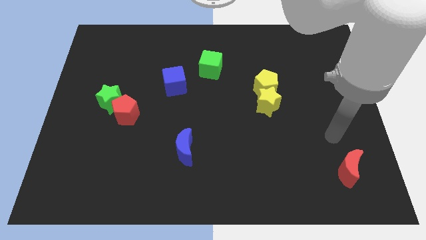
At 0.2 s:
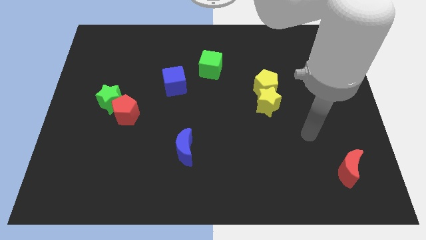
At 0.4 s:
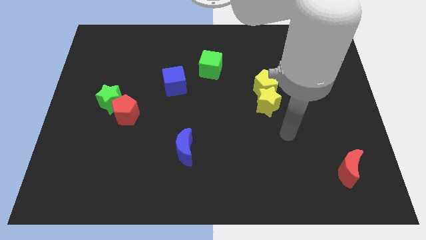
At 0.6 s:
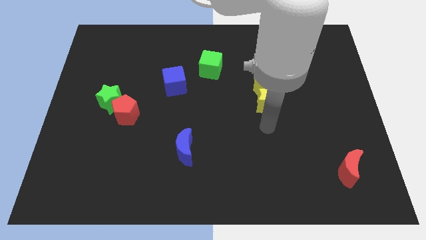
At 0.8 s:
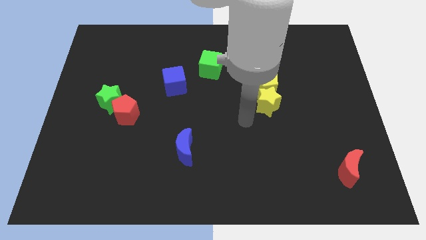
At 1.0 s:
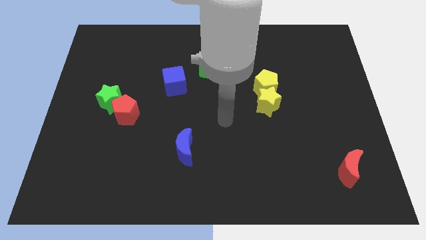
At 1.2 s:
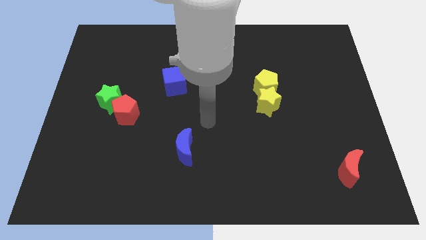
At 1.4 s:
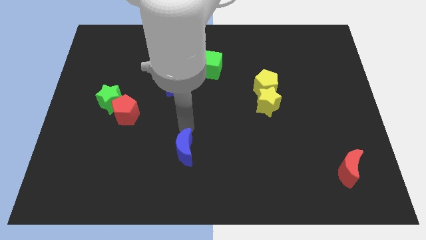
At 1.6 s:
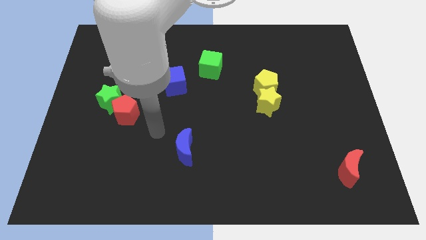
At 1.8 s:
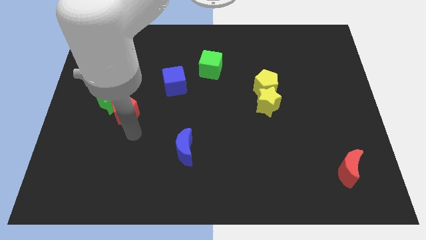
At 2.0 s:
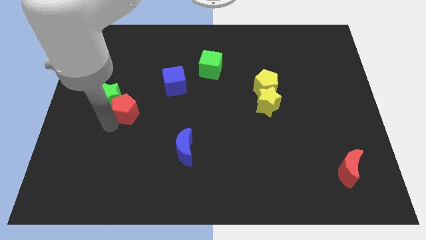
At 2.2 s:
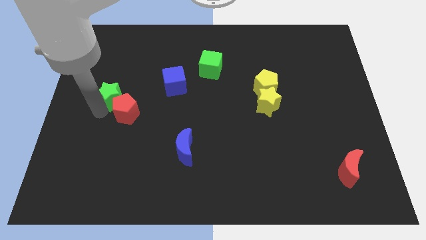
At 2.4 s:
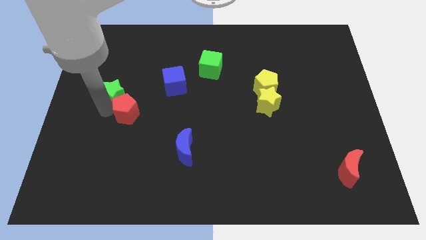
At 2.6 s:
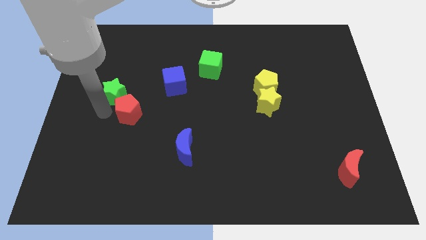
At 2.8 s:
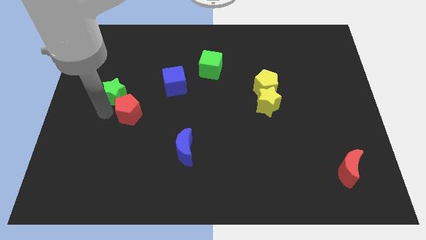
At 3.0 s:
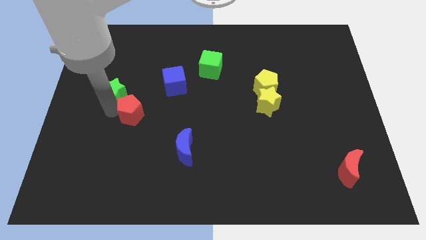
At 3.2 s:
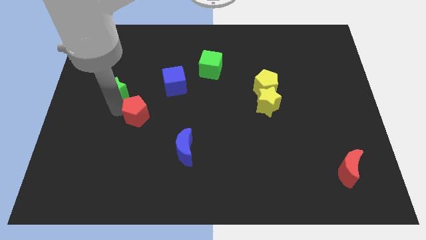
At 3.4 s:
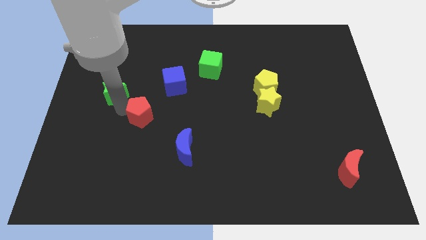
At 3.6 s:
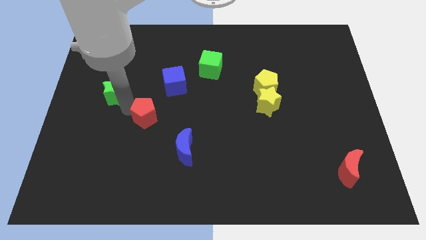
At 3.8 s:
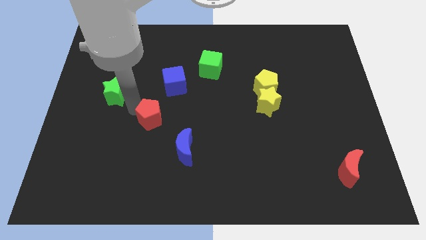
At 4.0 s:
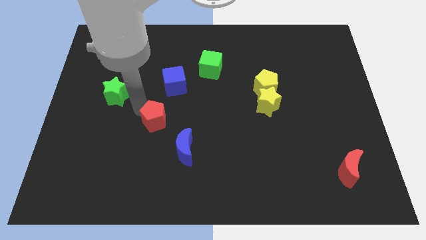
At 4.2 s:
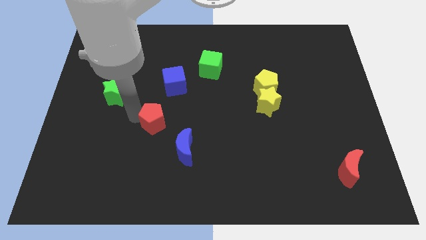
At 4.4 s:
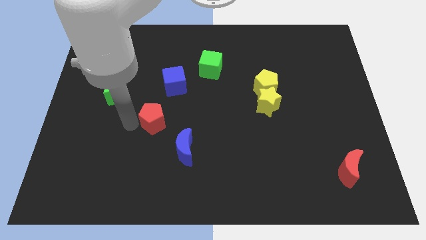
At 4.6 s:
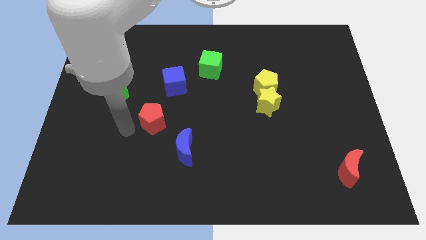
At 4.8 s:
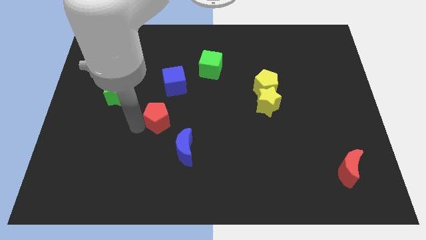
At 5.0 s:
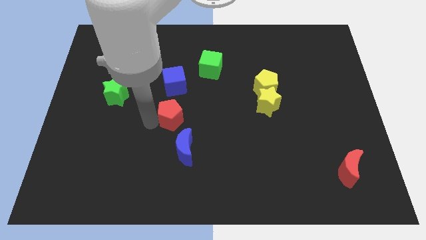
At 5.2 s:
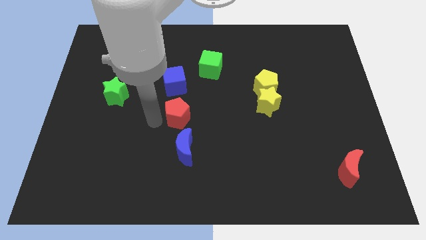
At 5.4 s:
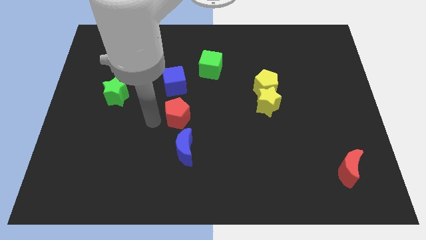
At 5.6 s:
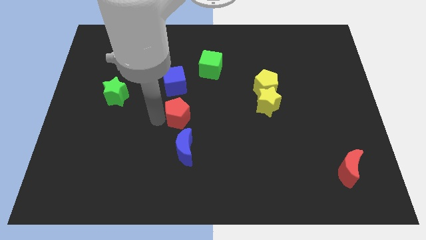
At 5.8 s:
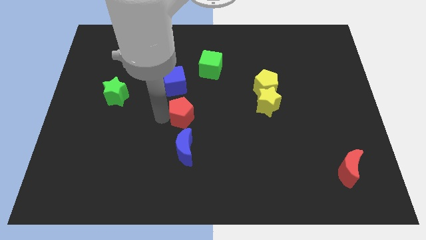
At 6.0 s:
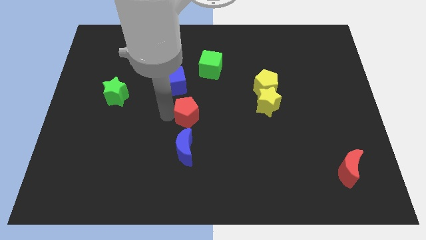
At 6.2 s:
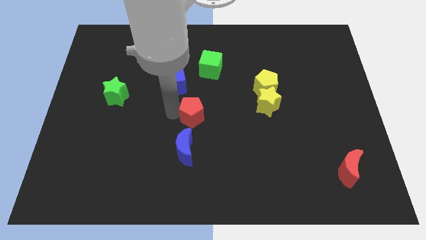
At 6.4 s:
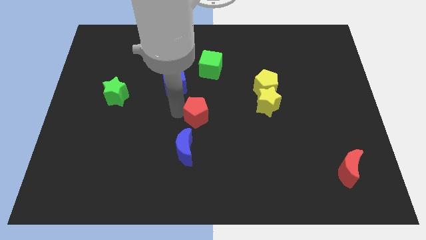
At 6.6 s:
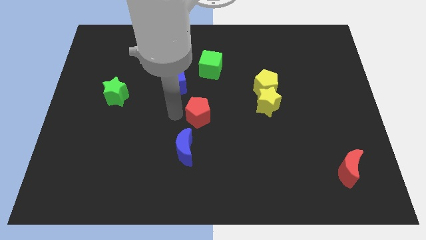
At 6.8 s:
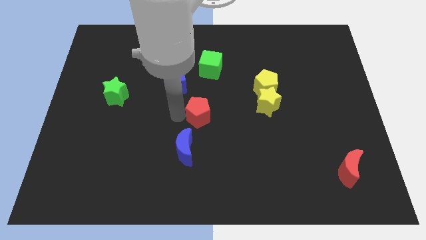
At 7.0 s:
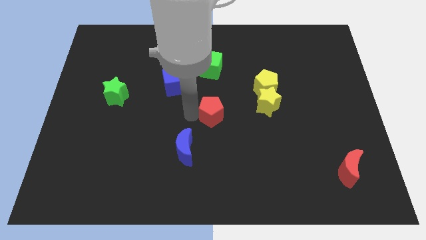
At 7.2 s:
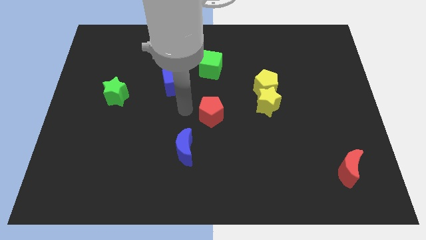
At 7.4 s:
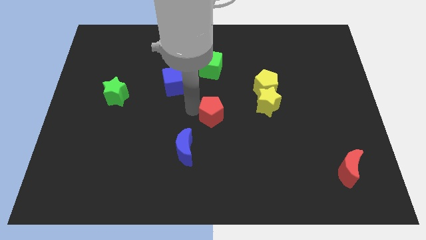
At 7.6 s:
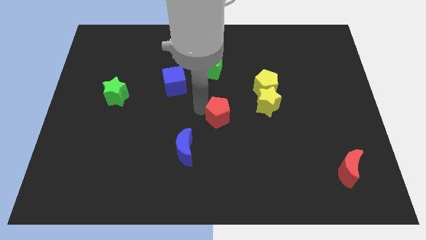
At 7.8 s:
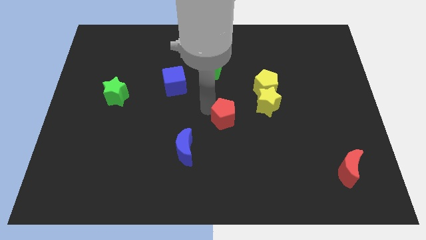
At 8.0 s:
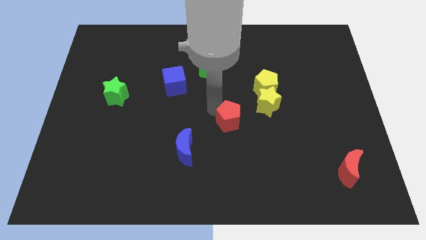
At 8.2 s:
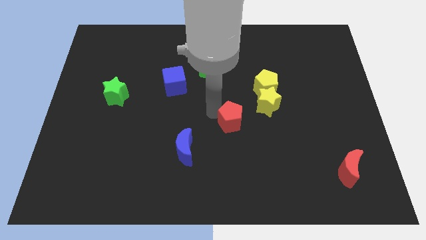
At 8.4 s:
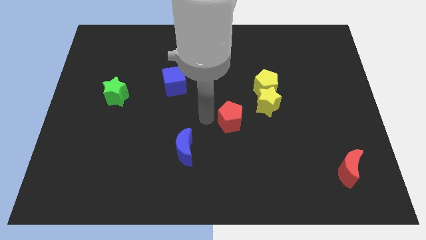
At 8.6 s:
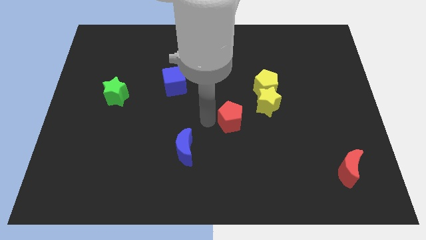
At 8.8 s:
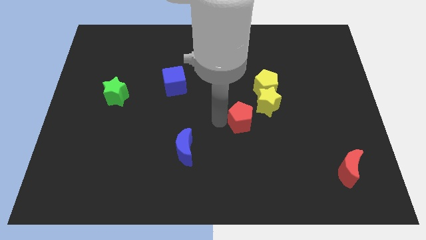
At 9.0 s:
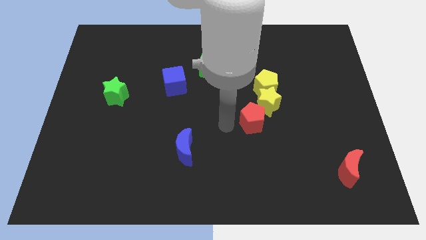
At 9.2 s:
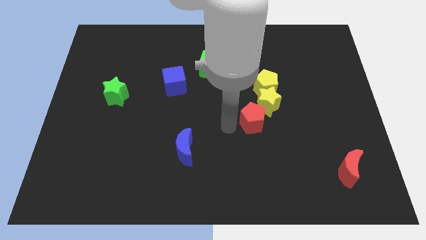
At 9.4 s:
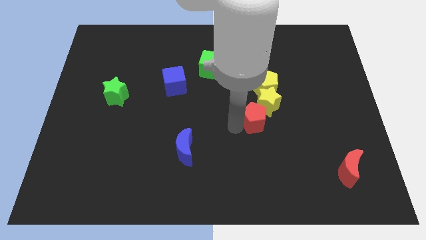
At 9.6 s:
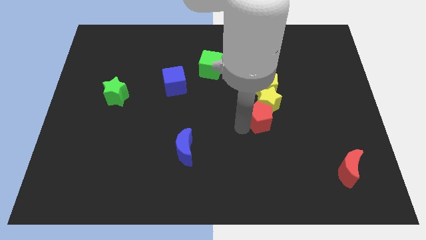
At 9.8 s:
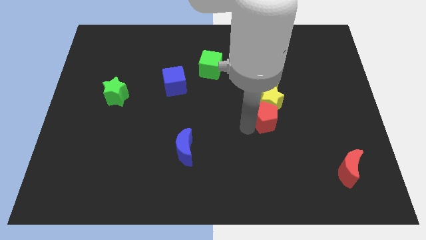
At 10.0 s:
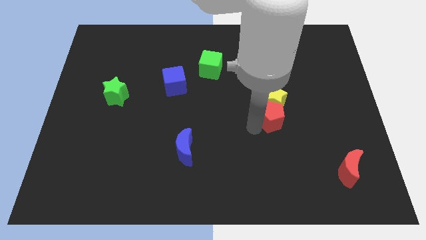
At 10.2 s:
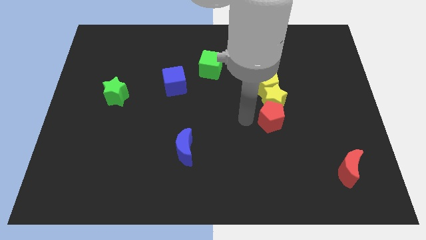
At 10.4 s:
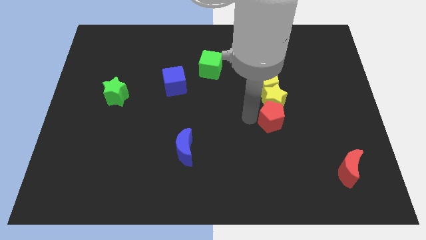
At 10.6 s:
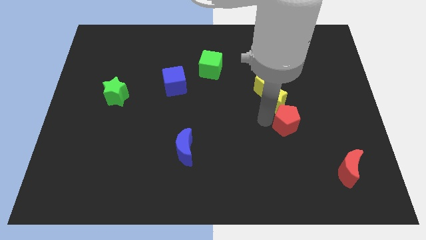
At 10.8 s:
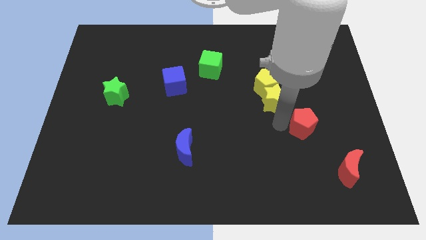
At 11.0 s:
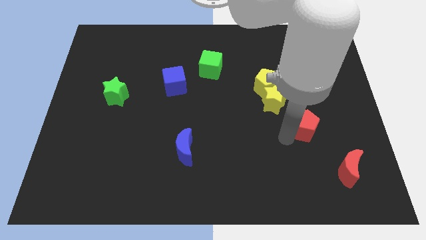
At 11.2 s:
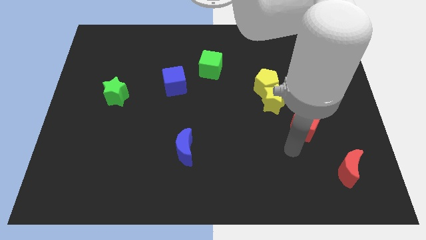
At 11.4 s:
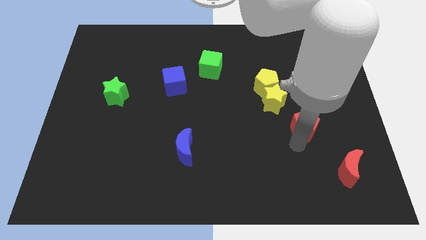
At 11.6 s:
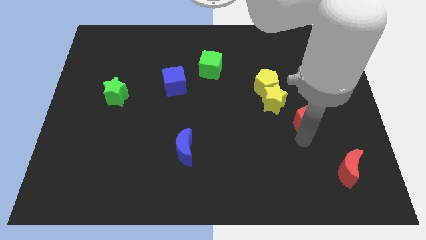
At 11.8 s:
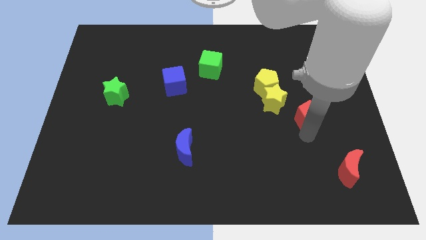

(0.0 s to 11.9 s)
push the red pentagon to the right side of the yellow star

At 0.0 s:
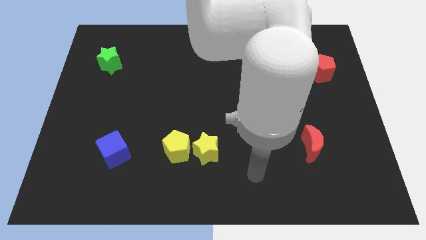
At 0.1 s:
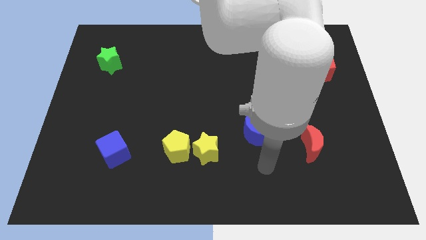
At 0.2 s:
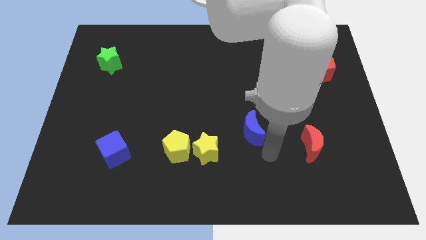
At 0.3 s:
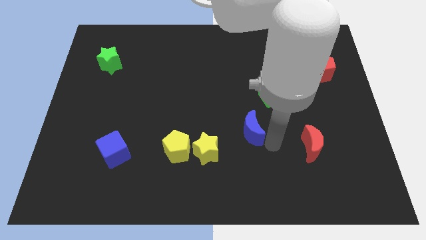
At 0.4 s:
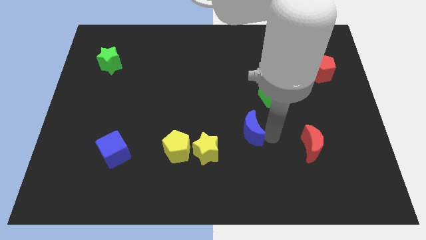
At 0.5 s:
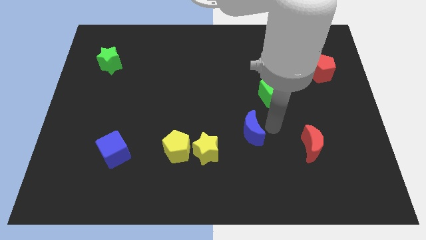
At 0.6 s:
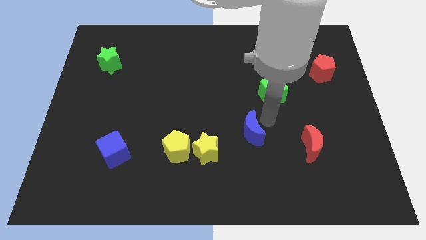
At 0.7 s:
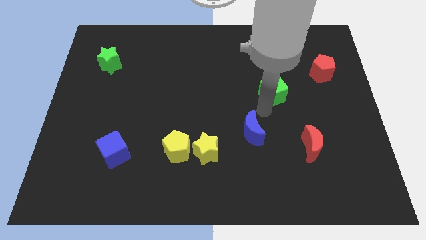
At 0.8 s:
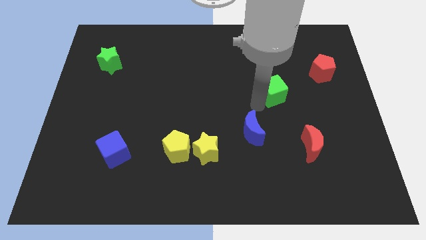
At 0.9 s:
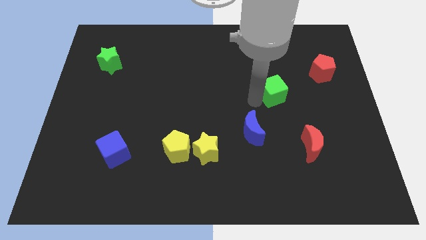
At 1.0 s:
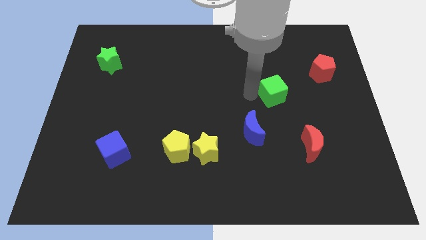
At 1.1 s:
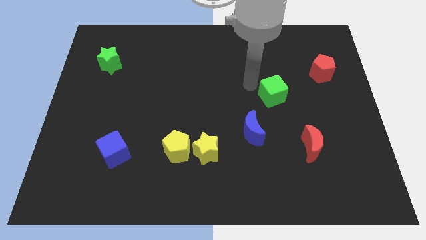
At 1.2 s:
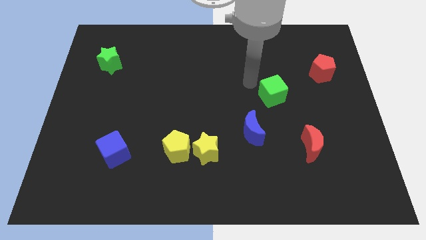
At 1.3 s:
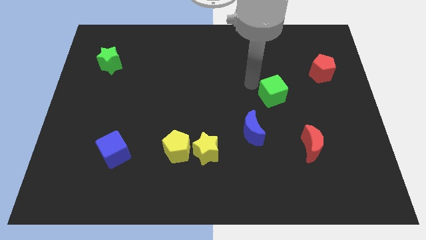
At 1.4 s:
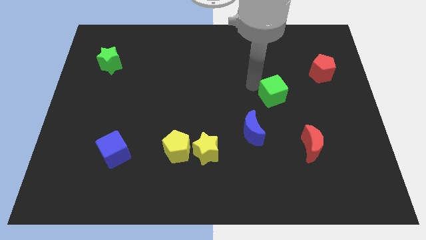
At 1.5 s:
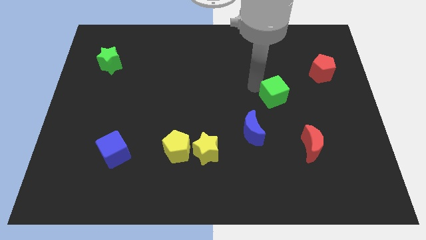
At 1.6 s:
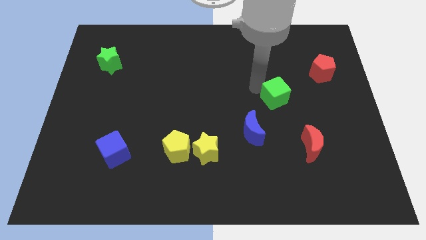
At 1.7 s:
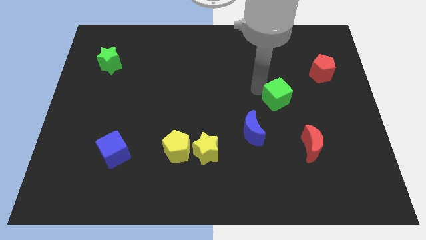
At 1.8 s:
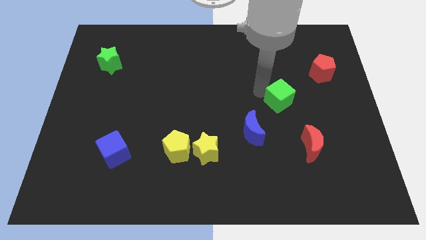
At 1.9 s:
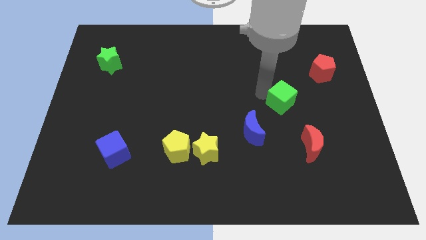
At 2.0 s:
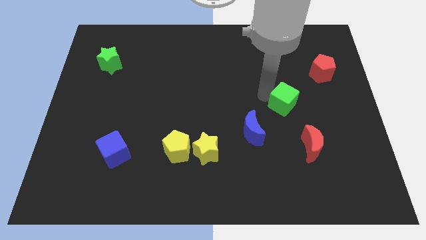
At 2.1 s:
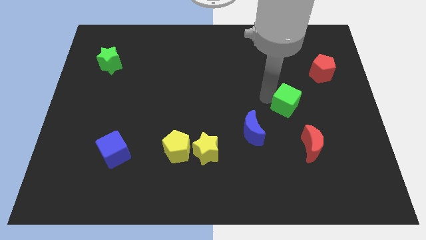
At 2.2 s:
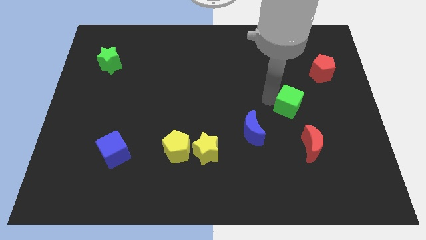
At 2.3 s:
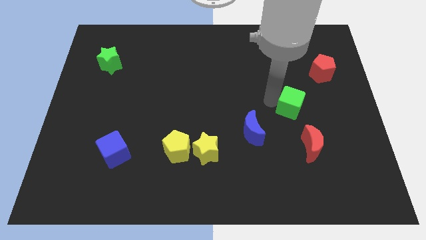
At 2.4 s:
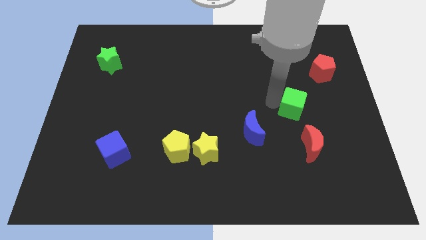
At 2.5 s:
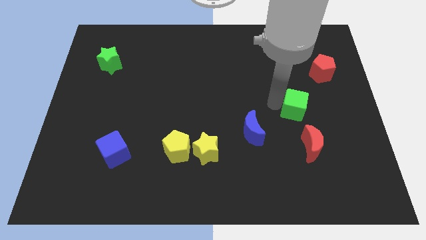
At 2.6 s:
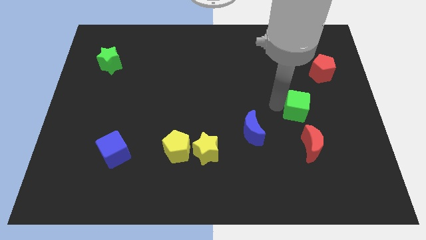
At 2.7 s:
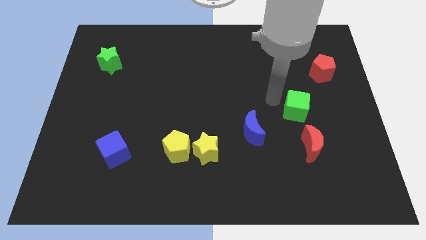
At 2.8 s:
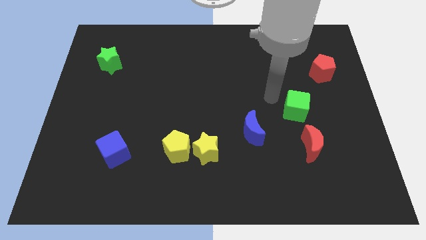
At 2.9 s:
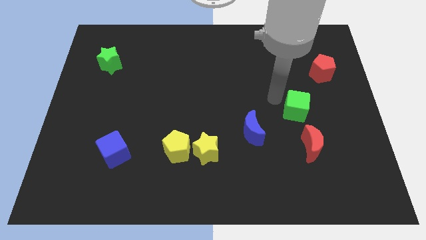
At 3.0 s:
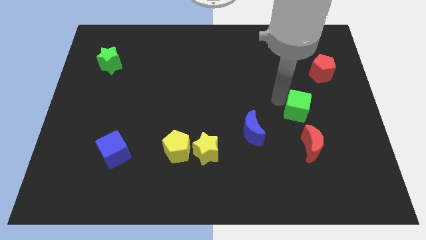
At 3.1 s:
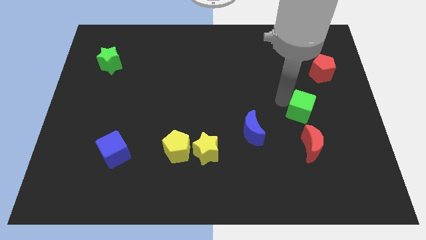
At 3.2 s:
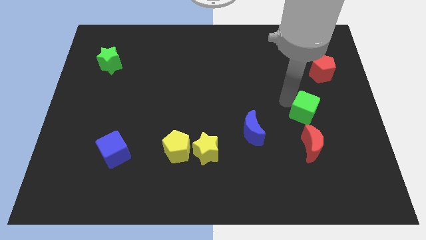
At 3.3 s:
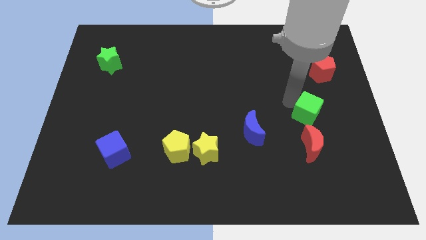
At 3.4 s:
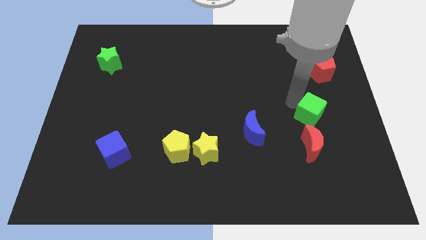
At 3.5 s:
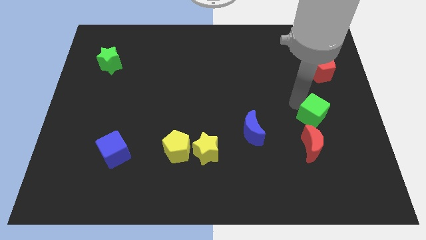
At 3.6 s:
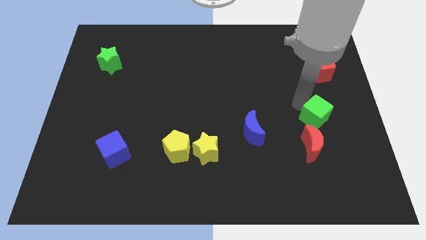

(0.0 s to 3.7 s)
move the green cube diagonally up and to the right of the red moon
